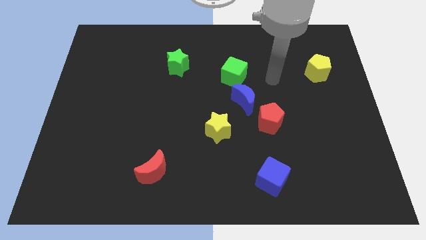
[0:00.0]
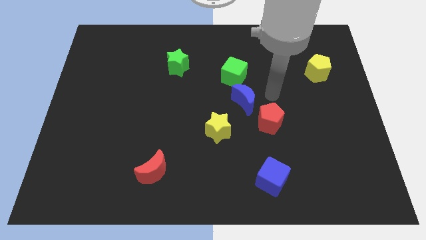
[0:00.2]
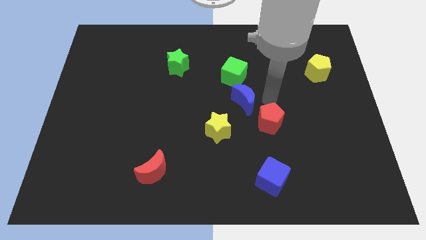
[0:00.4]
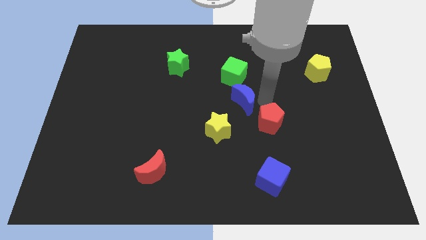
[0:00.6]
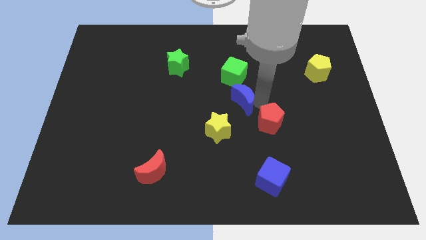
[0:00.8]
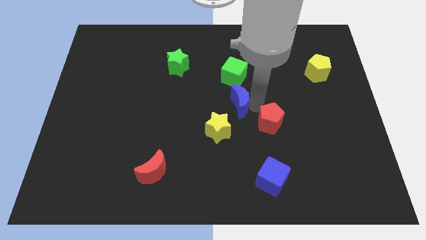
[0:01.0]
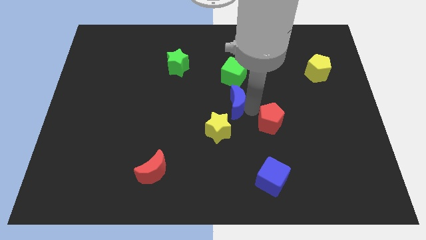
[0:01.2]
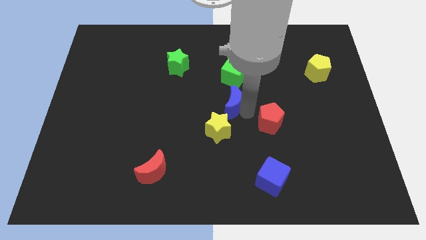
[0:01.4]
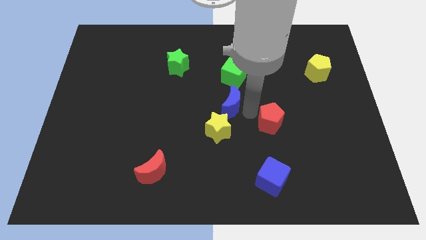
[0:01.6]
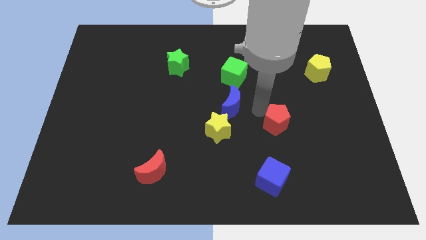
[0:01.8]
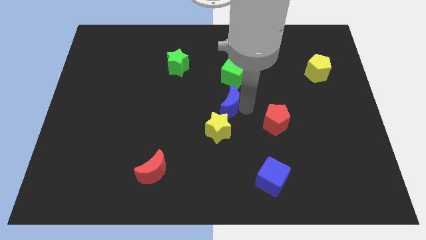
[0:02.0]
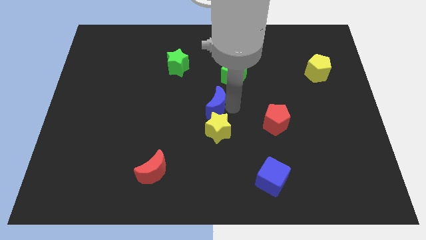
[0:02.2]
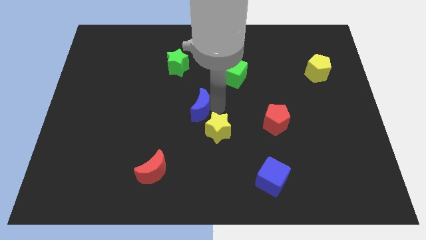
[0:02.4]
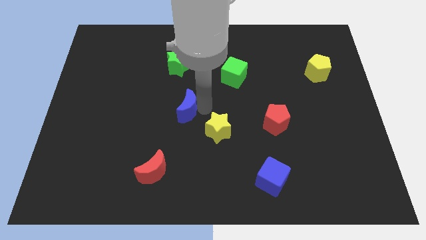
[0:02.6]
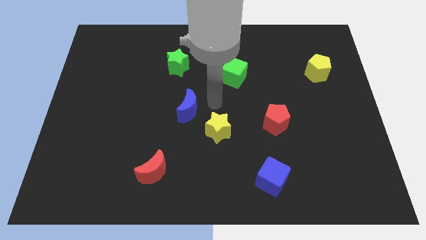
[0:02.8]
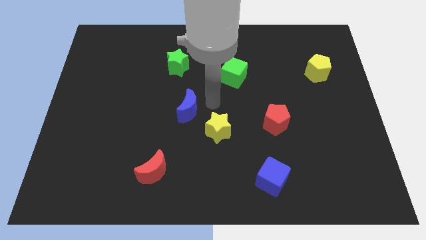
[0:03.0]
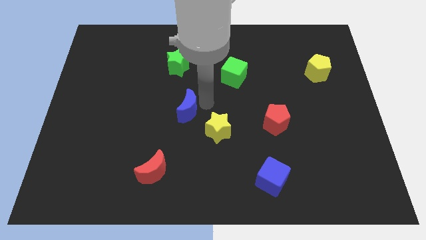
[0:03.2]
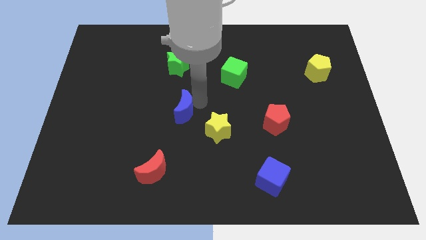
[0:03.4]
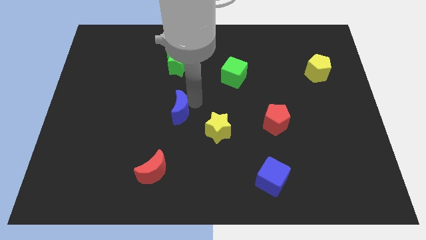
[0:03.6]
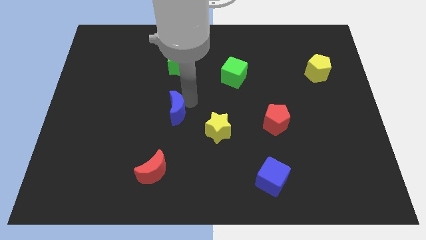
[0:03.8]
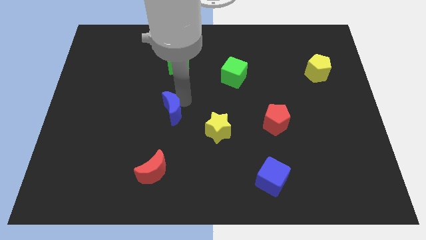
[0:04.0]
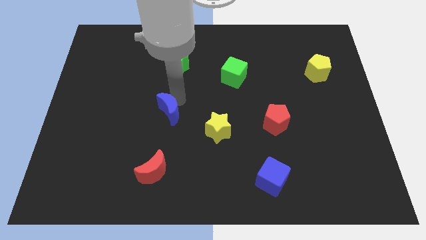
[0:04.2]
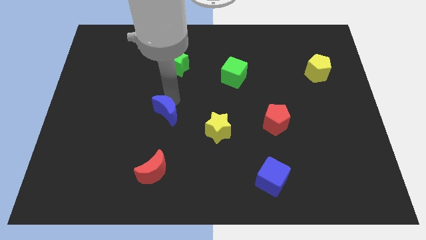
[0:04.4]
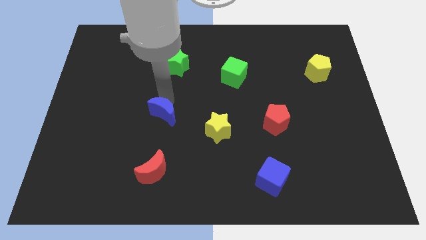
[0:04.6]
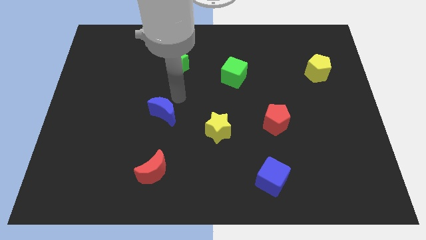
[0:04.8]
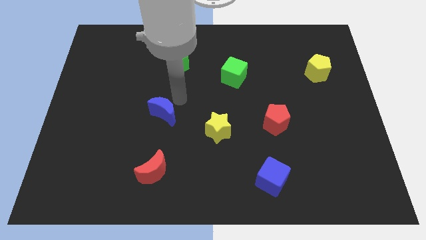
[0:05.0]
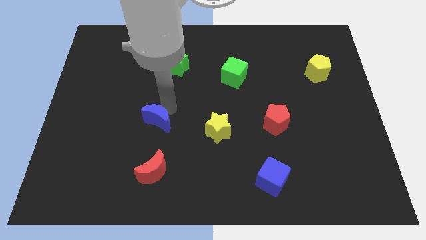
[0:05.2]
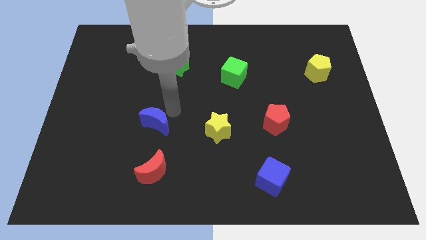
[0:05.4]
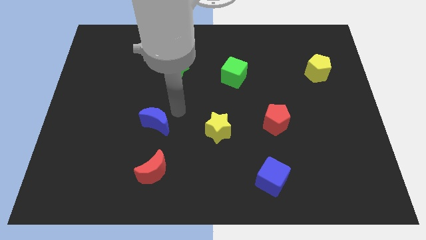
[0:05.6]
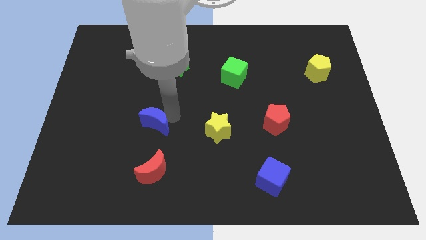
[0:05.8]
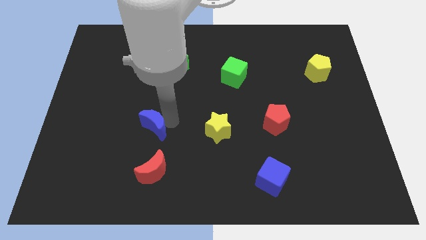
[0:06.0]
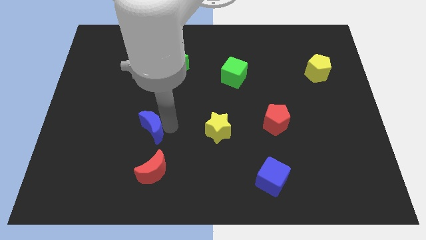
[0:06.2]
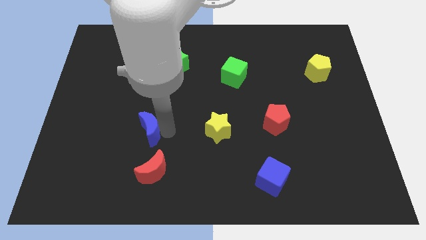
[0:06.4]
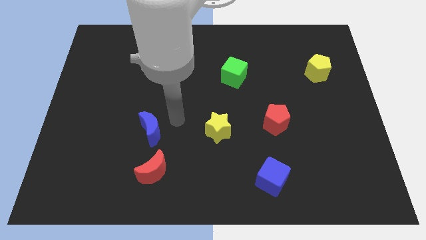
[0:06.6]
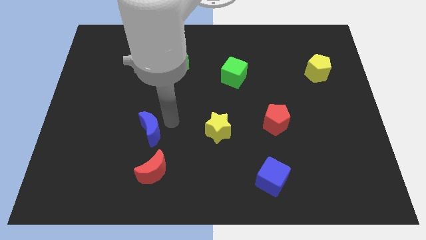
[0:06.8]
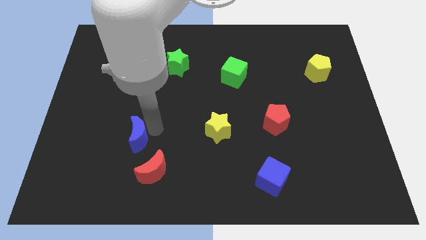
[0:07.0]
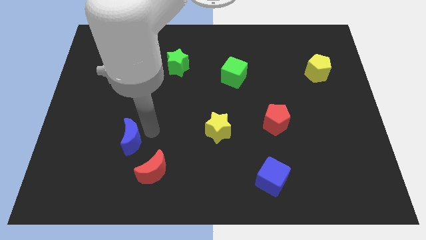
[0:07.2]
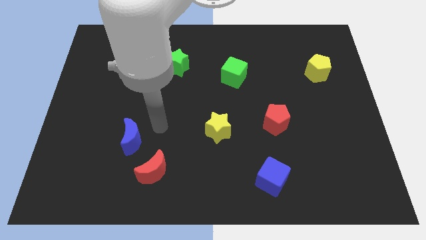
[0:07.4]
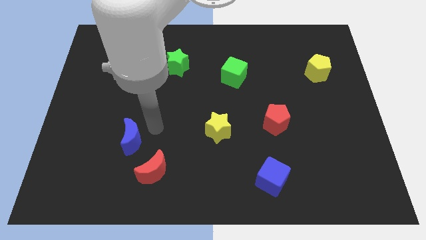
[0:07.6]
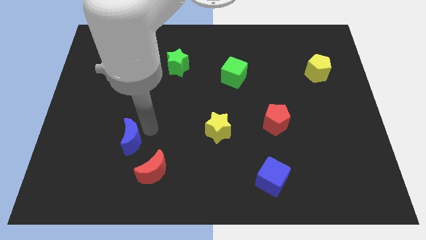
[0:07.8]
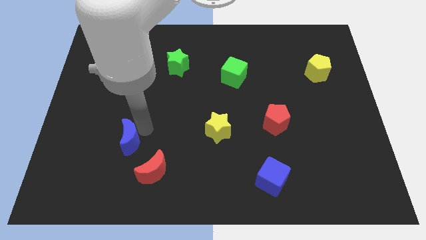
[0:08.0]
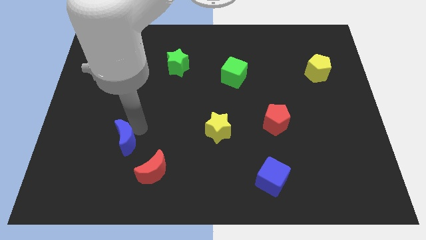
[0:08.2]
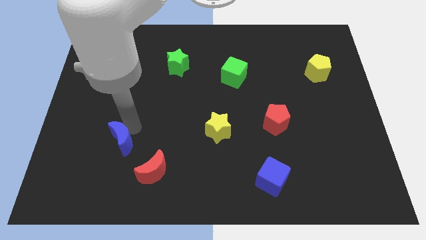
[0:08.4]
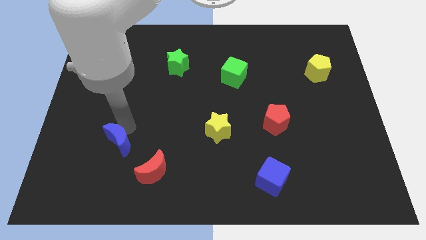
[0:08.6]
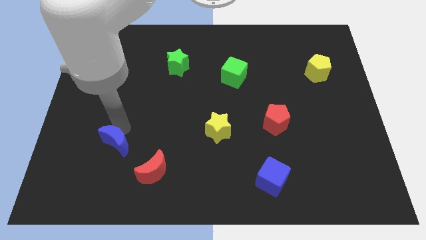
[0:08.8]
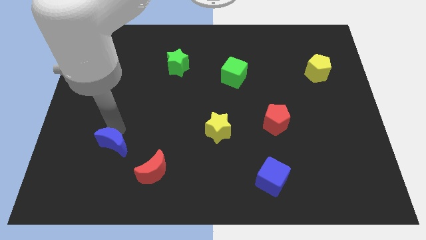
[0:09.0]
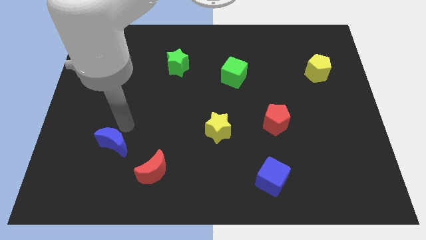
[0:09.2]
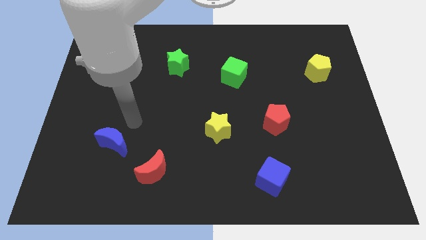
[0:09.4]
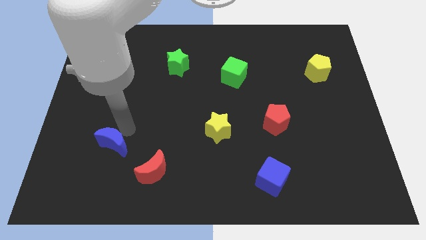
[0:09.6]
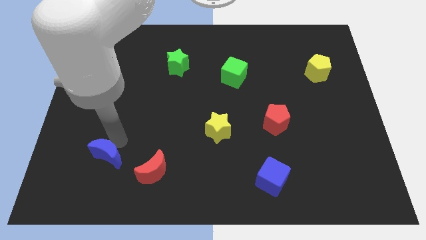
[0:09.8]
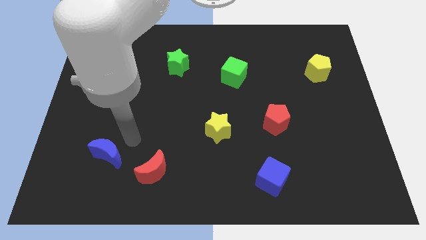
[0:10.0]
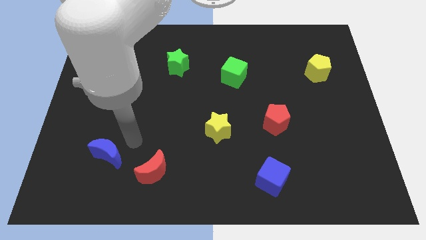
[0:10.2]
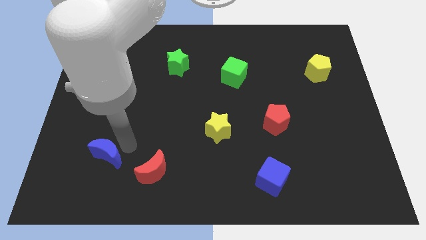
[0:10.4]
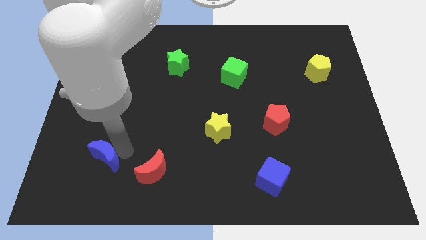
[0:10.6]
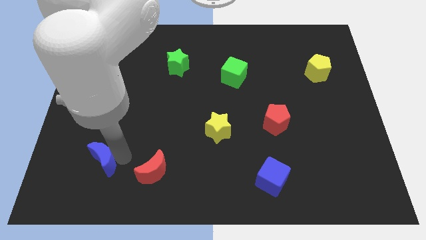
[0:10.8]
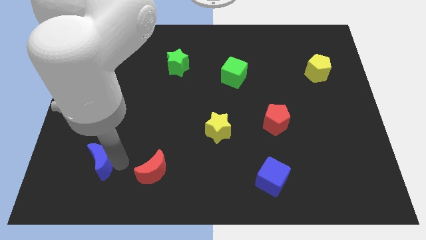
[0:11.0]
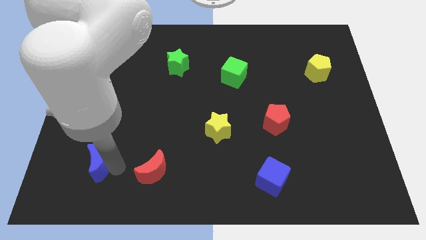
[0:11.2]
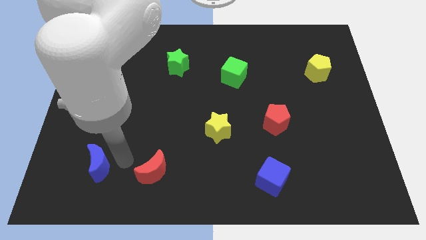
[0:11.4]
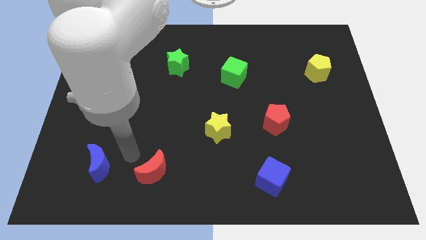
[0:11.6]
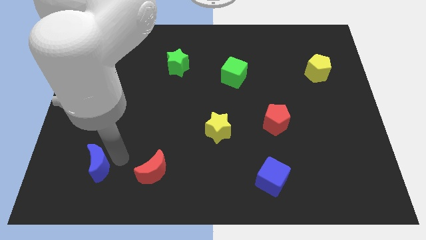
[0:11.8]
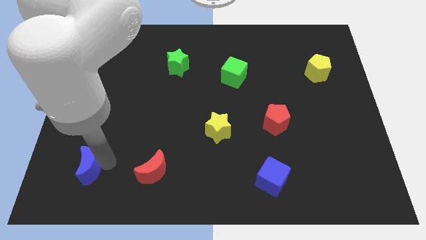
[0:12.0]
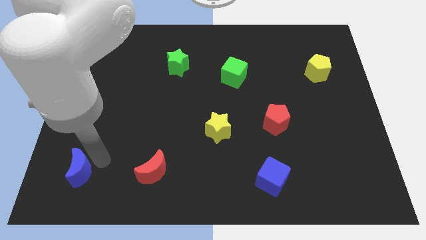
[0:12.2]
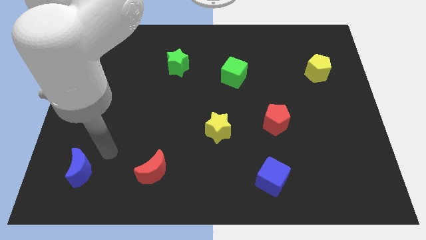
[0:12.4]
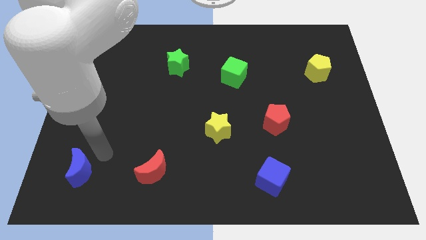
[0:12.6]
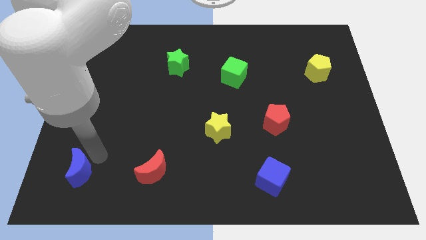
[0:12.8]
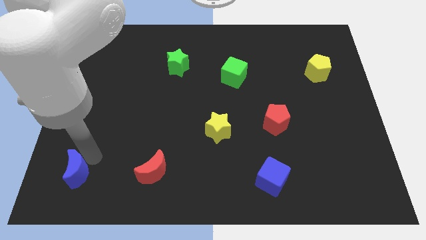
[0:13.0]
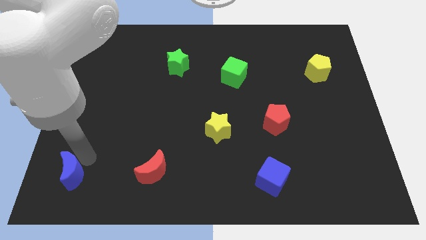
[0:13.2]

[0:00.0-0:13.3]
put the blue moon to the bottom left of the board
